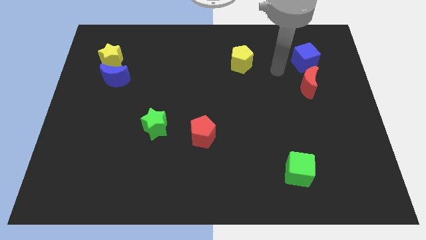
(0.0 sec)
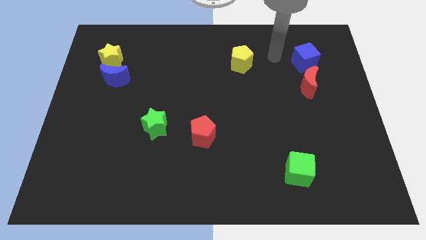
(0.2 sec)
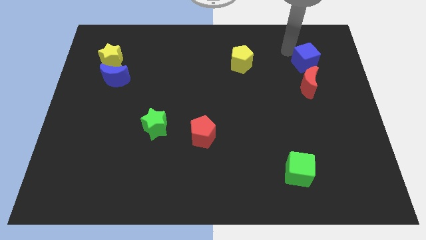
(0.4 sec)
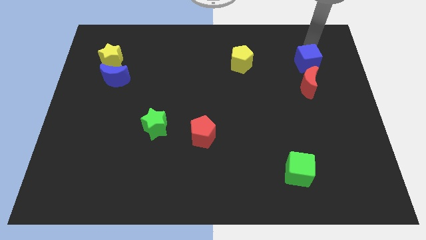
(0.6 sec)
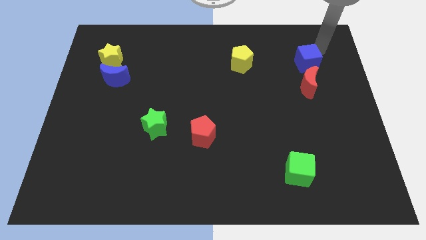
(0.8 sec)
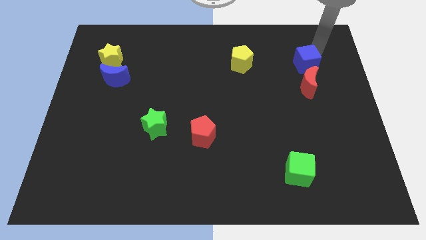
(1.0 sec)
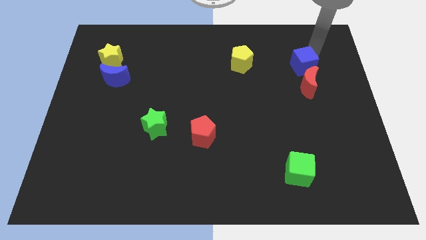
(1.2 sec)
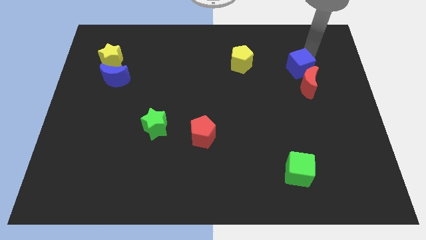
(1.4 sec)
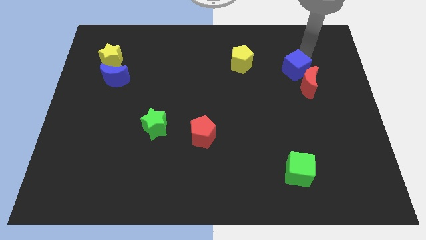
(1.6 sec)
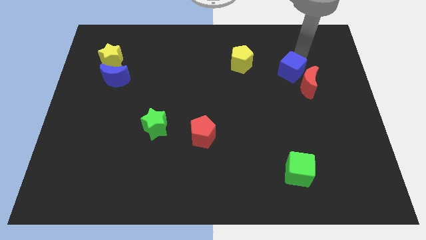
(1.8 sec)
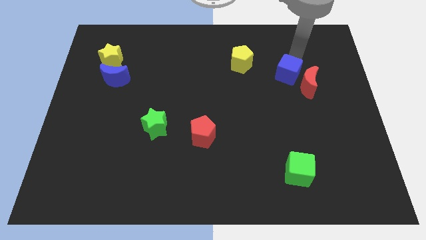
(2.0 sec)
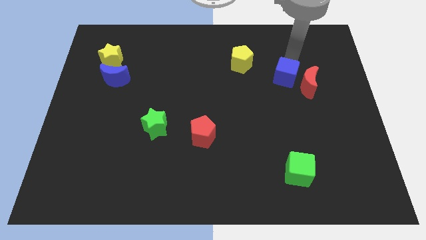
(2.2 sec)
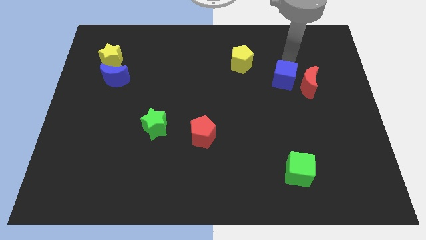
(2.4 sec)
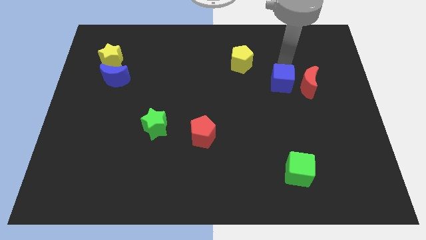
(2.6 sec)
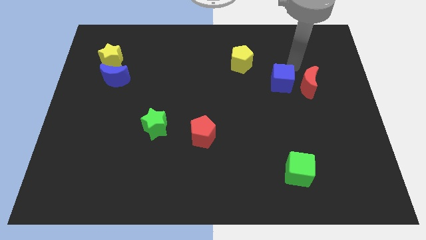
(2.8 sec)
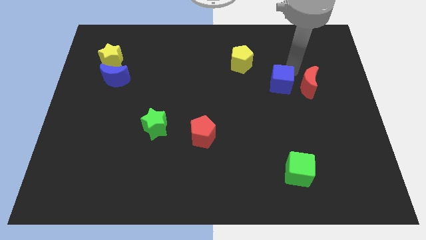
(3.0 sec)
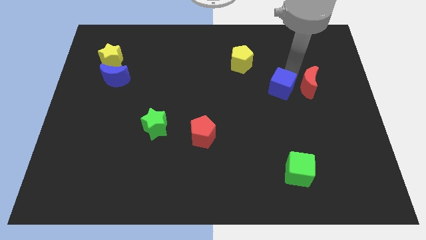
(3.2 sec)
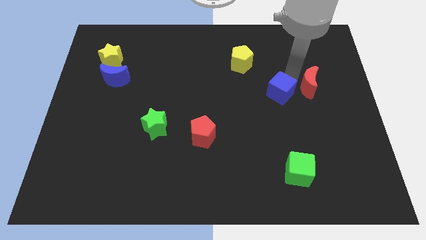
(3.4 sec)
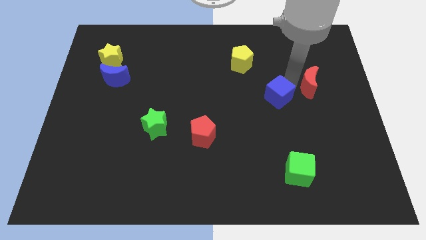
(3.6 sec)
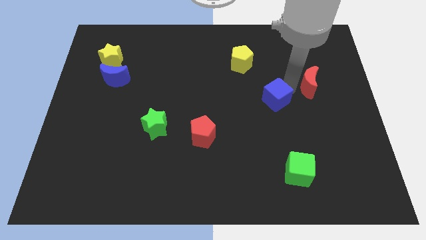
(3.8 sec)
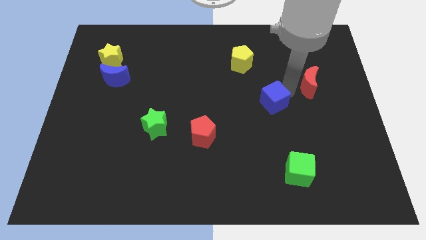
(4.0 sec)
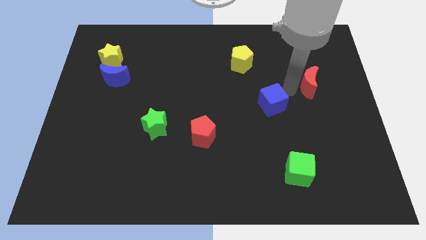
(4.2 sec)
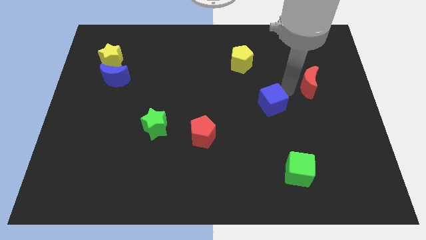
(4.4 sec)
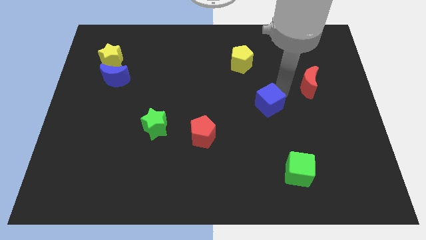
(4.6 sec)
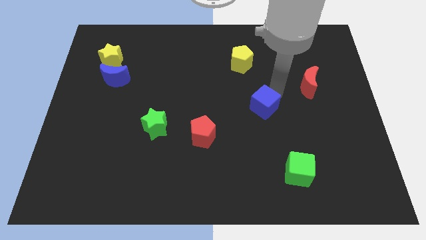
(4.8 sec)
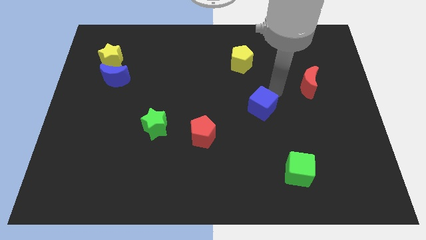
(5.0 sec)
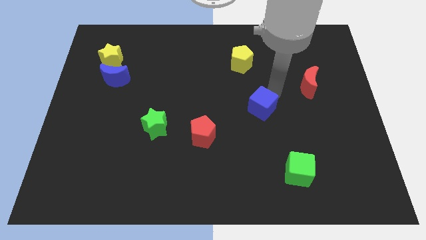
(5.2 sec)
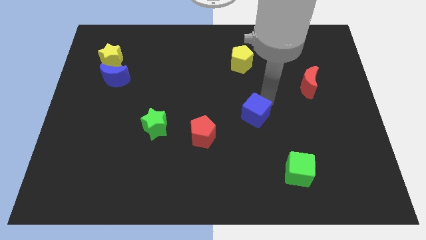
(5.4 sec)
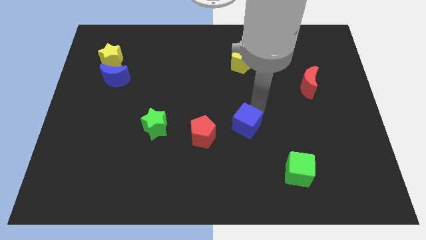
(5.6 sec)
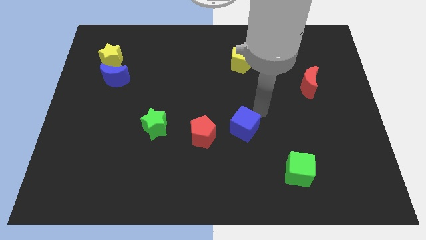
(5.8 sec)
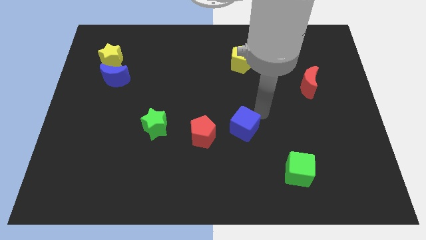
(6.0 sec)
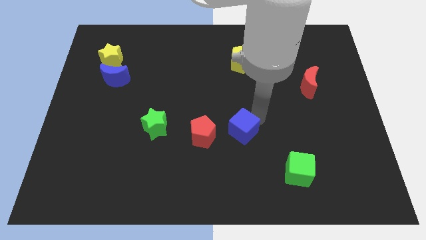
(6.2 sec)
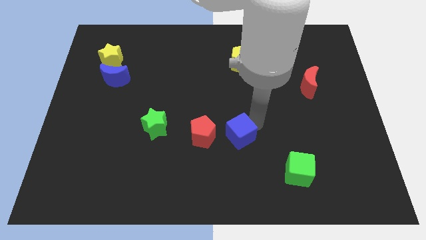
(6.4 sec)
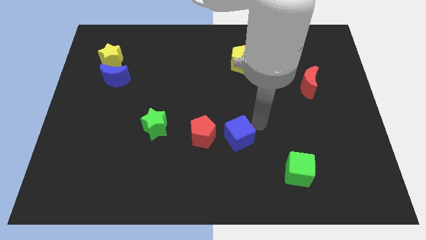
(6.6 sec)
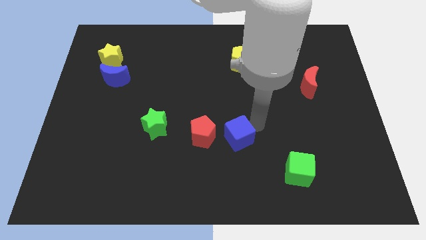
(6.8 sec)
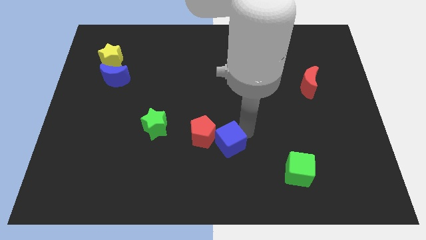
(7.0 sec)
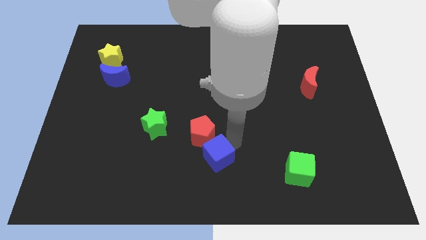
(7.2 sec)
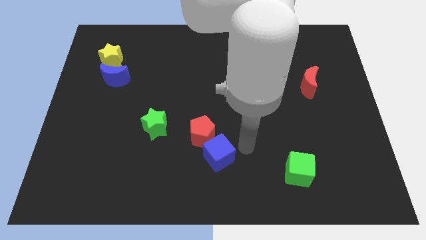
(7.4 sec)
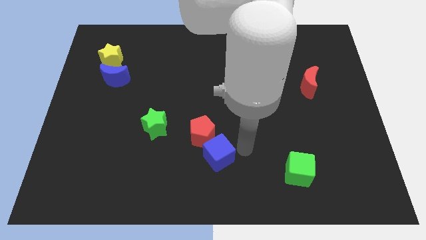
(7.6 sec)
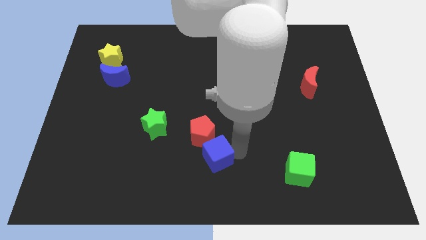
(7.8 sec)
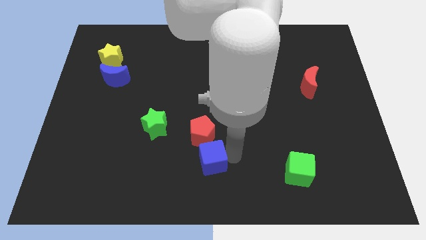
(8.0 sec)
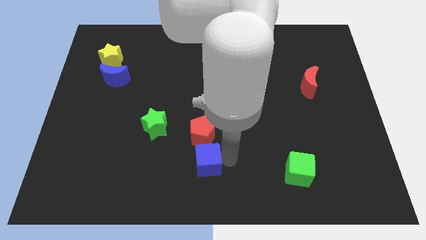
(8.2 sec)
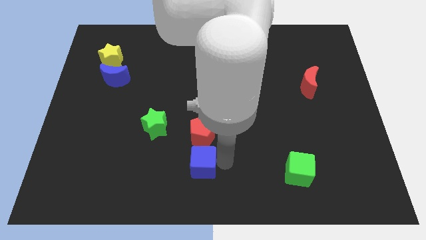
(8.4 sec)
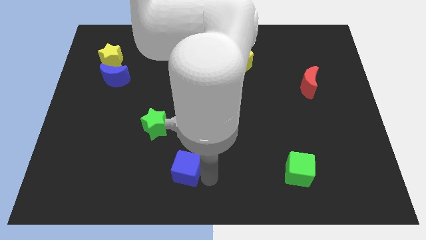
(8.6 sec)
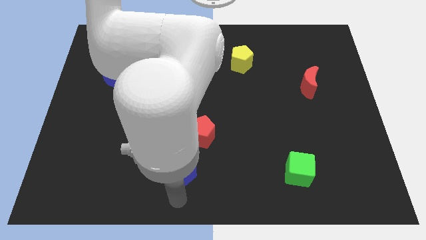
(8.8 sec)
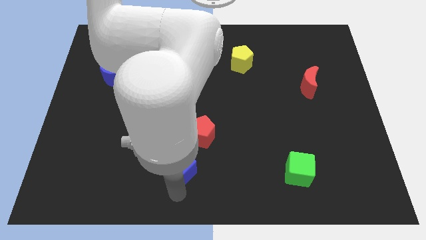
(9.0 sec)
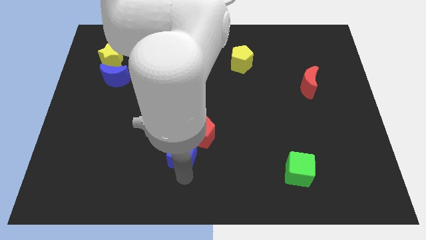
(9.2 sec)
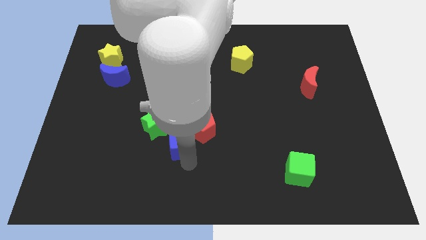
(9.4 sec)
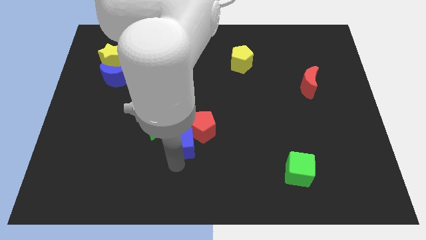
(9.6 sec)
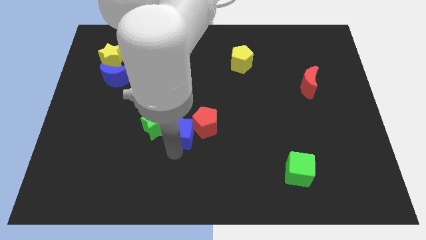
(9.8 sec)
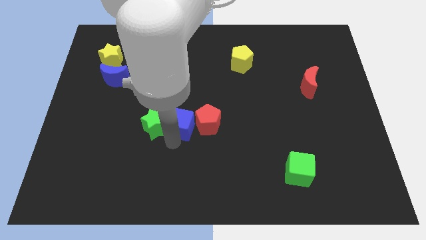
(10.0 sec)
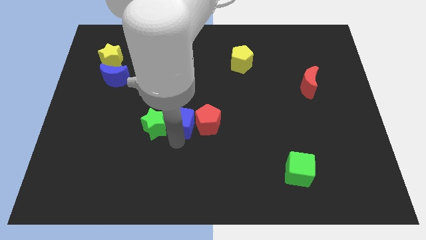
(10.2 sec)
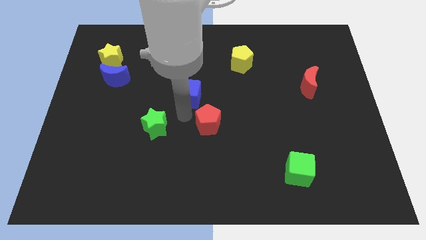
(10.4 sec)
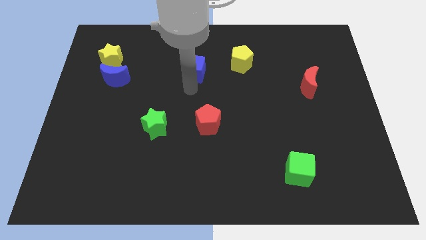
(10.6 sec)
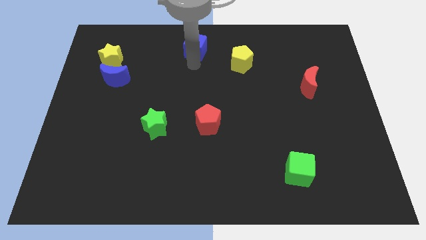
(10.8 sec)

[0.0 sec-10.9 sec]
slide the blue cube to the top side
